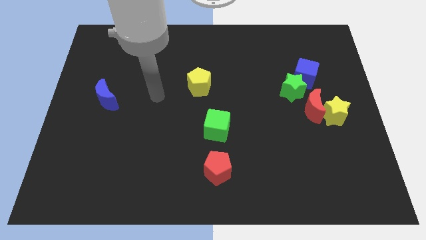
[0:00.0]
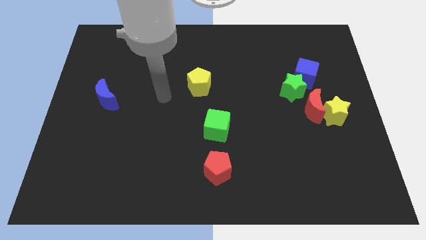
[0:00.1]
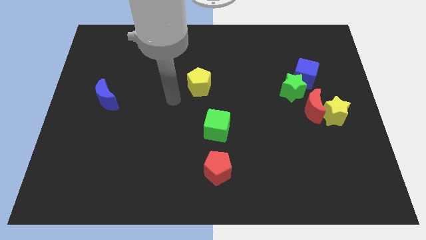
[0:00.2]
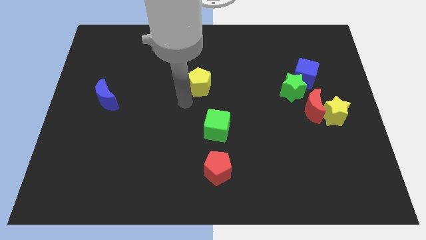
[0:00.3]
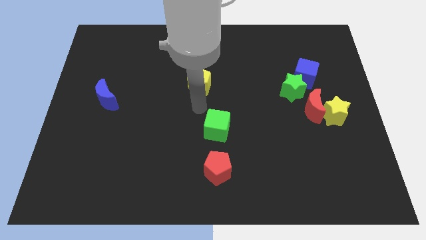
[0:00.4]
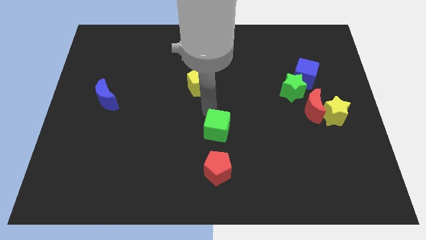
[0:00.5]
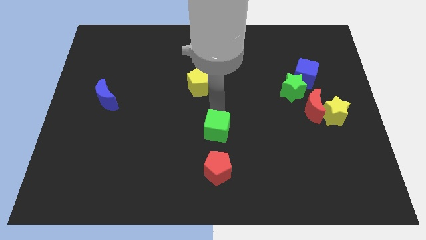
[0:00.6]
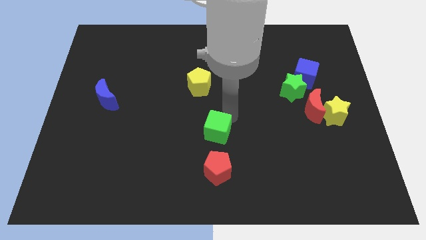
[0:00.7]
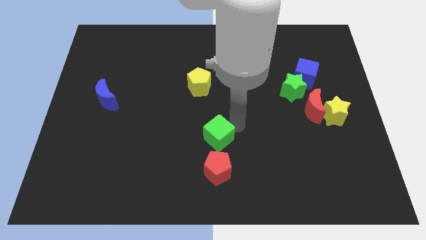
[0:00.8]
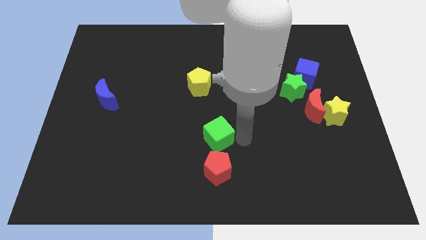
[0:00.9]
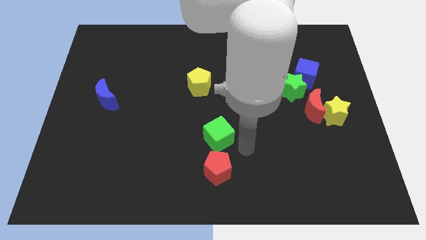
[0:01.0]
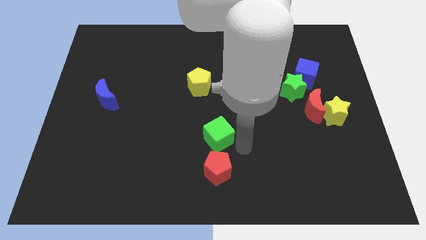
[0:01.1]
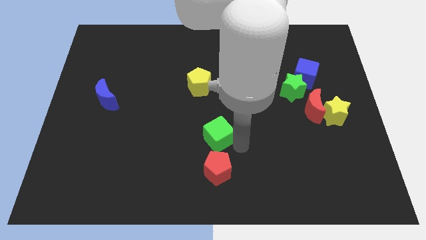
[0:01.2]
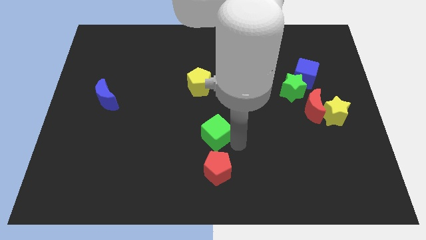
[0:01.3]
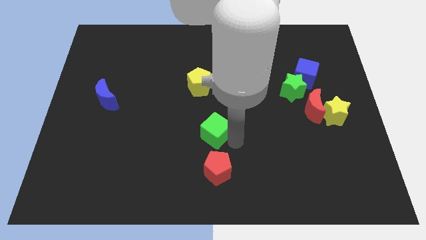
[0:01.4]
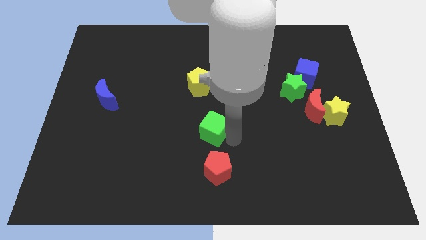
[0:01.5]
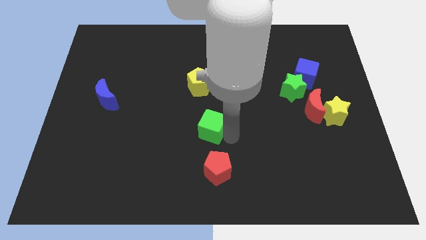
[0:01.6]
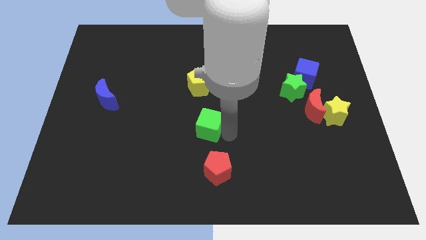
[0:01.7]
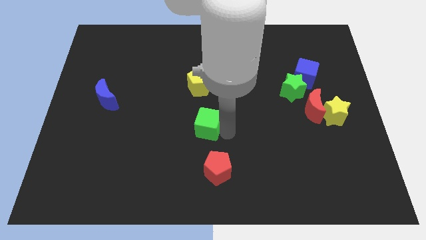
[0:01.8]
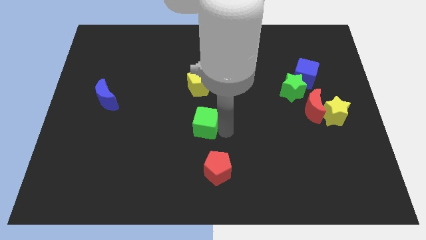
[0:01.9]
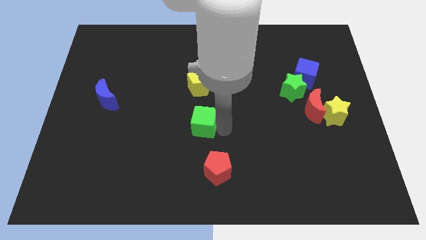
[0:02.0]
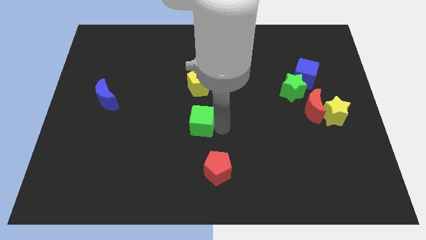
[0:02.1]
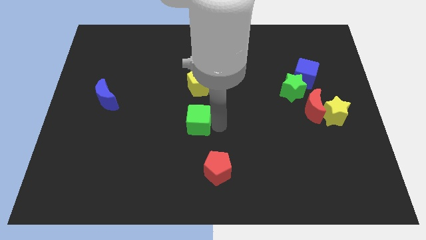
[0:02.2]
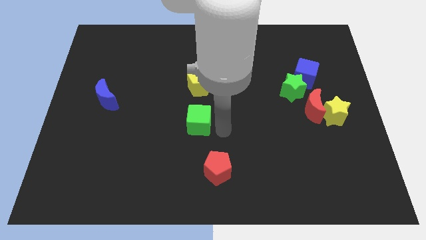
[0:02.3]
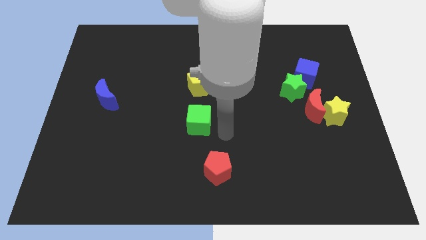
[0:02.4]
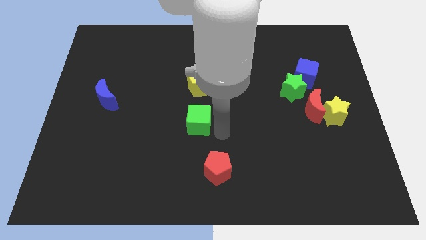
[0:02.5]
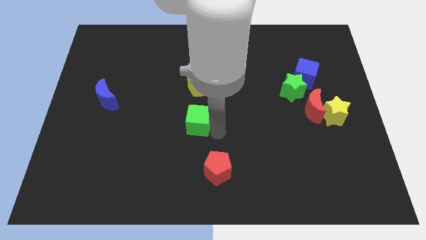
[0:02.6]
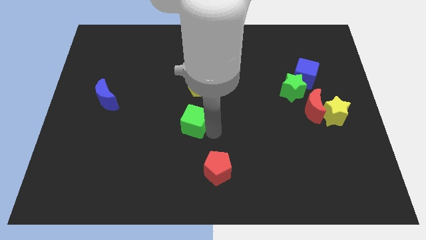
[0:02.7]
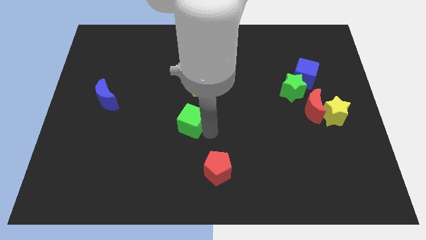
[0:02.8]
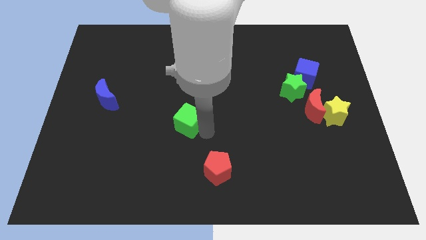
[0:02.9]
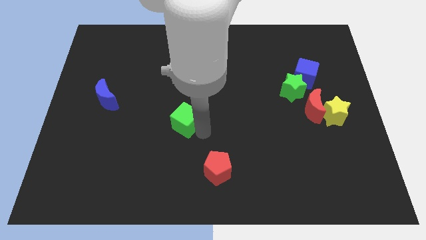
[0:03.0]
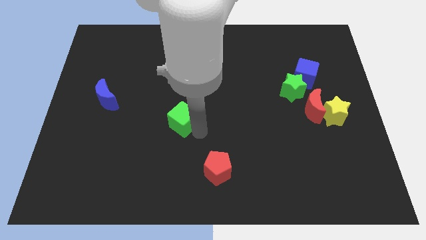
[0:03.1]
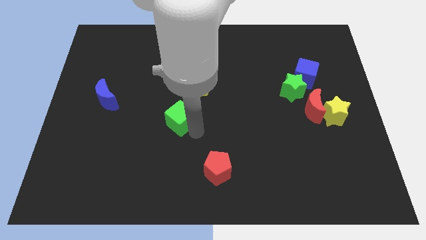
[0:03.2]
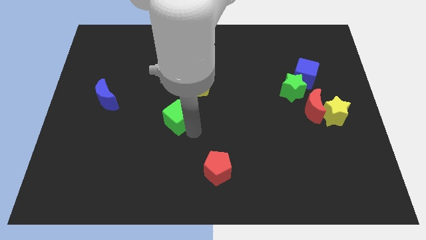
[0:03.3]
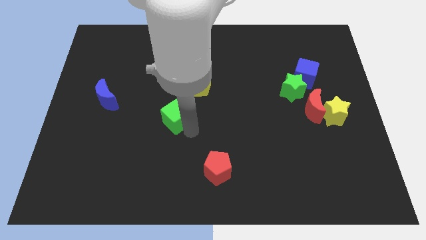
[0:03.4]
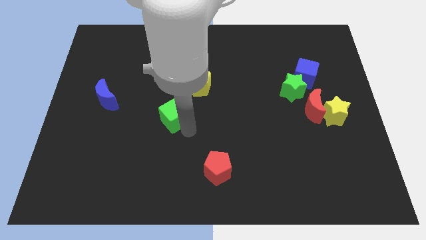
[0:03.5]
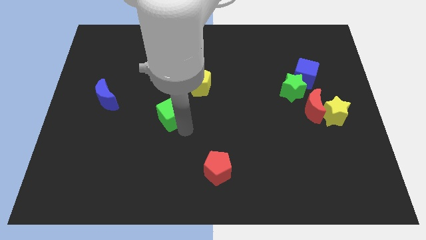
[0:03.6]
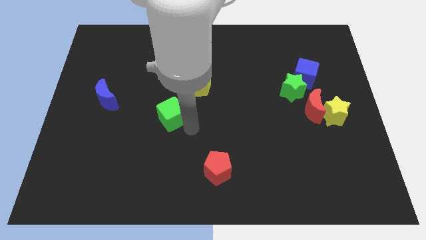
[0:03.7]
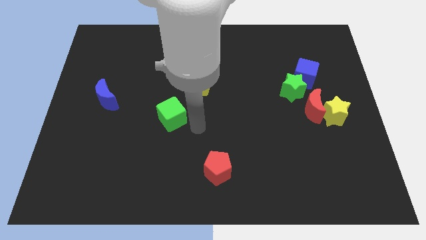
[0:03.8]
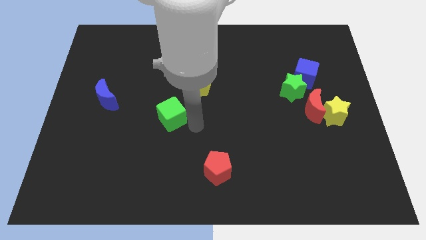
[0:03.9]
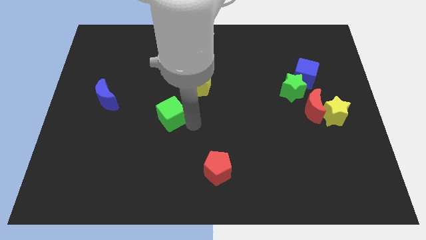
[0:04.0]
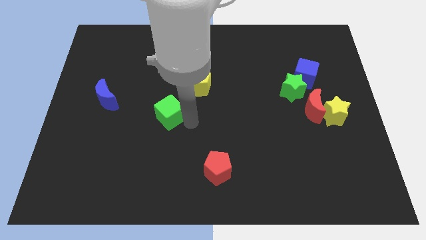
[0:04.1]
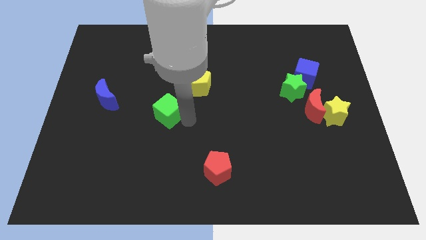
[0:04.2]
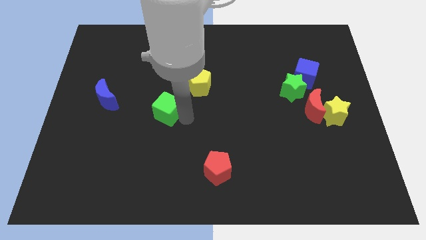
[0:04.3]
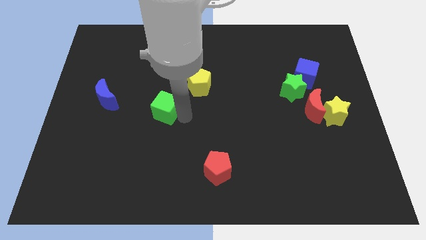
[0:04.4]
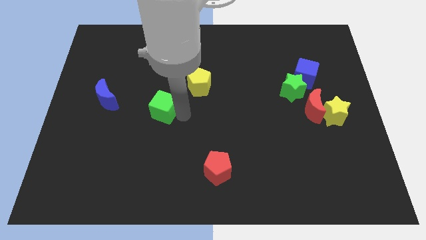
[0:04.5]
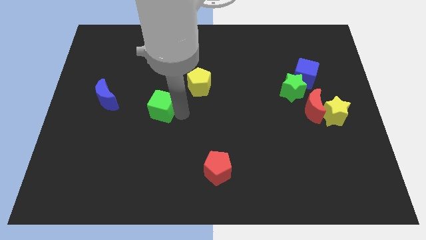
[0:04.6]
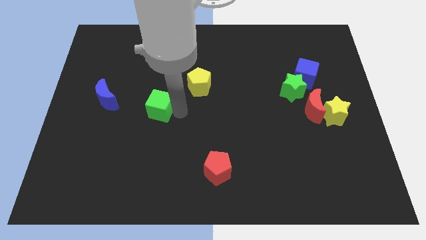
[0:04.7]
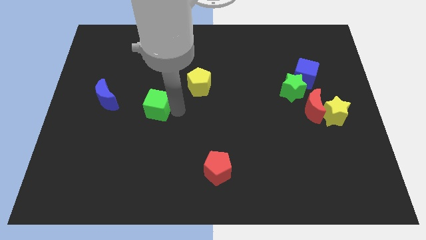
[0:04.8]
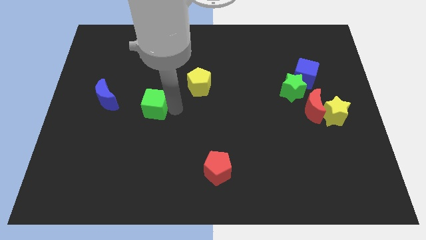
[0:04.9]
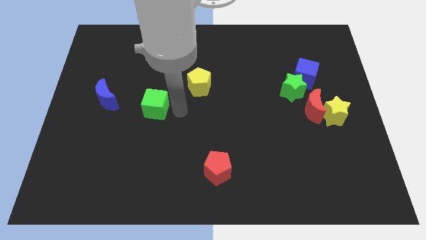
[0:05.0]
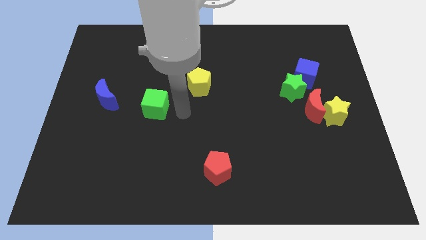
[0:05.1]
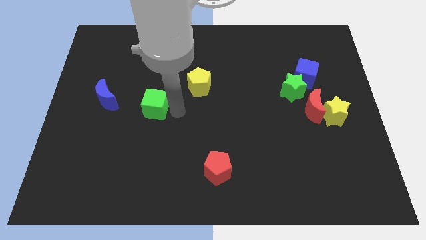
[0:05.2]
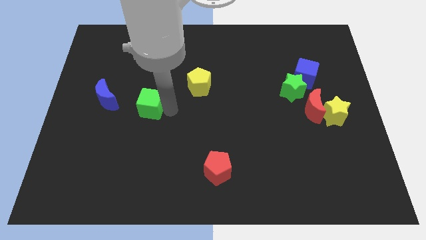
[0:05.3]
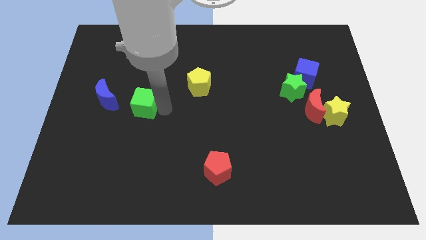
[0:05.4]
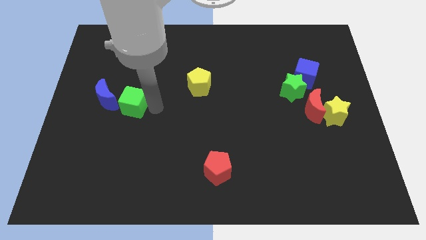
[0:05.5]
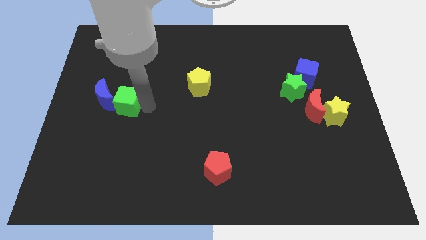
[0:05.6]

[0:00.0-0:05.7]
move the green cube to the blue moon

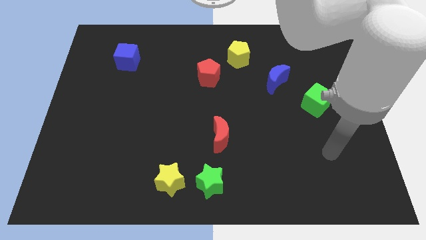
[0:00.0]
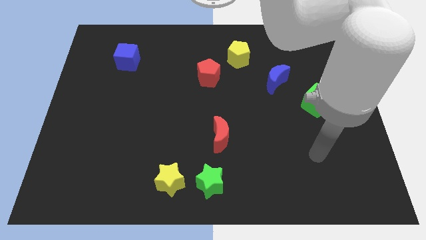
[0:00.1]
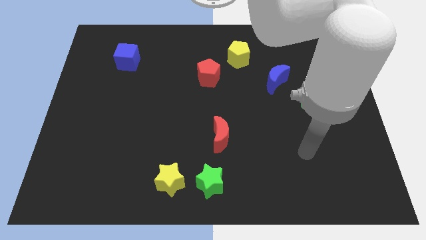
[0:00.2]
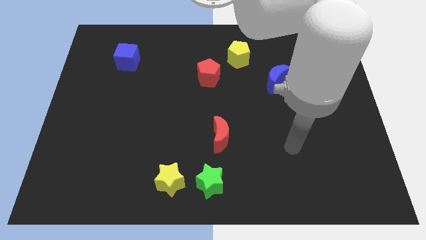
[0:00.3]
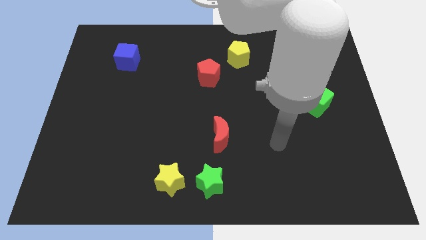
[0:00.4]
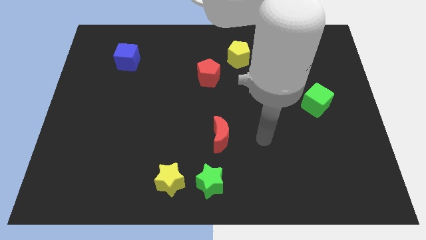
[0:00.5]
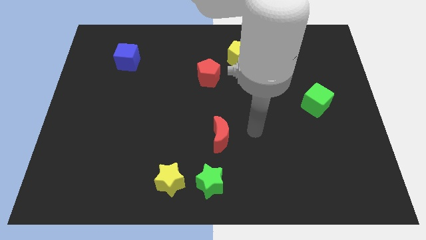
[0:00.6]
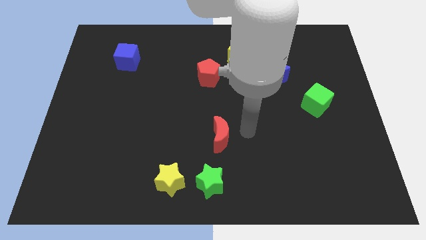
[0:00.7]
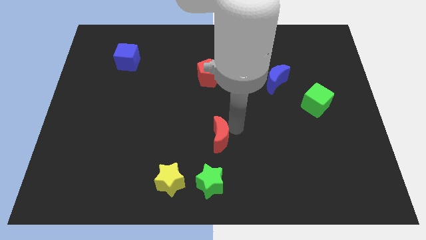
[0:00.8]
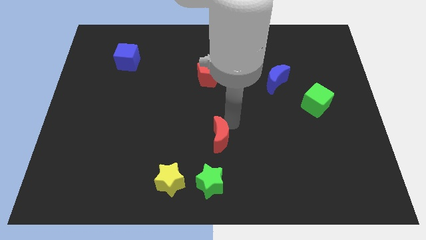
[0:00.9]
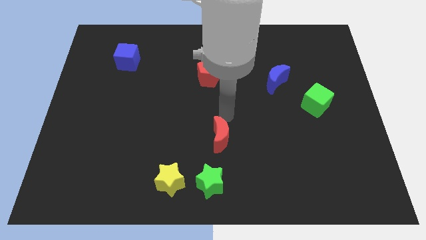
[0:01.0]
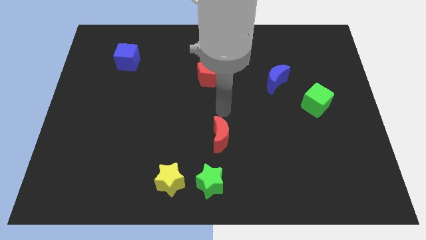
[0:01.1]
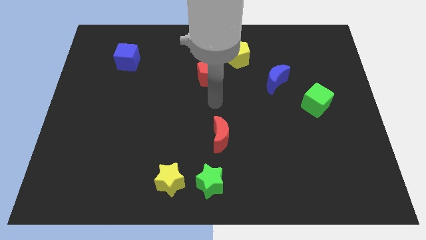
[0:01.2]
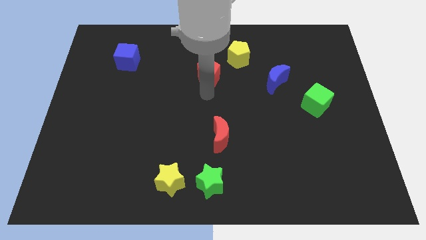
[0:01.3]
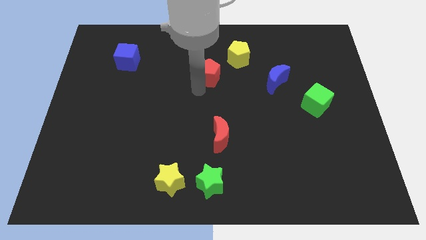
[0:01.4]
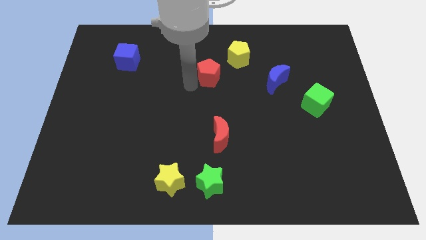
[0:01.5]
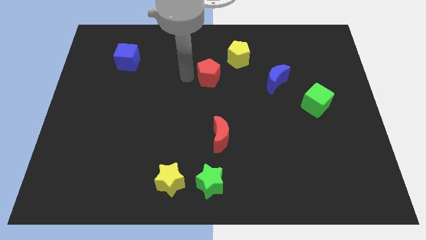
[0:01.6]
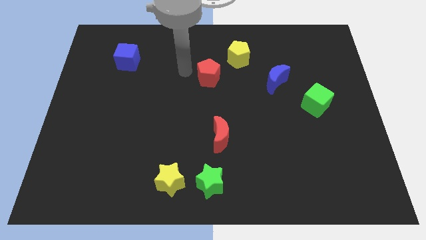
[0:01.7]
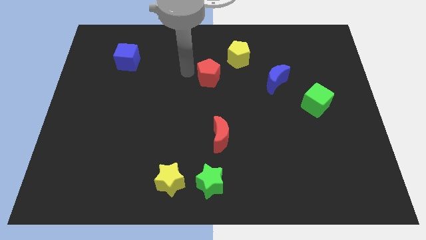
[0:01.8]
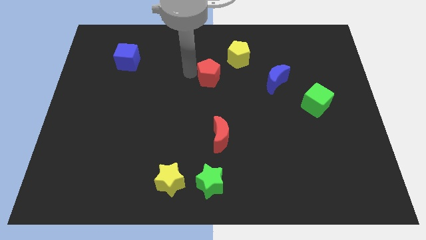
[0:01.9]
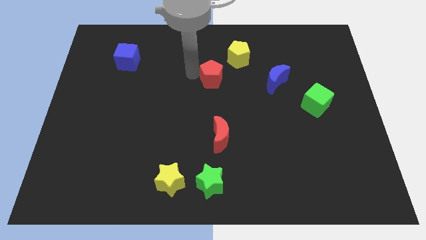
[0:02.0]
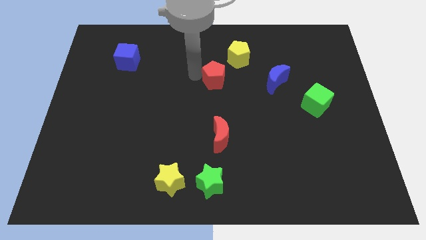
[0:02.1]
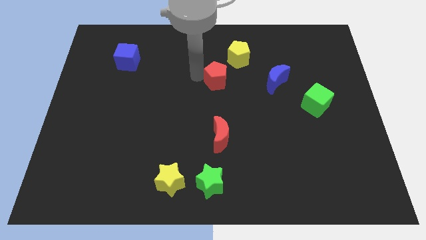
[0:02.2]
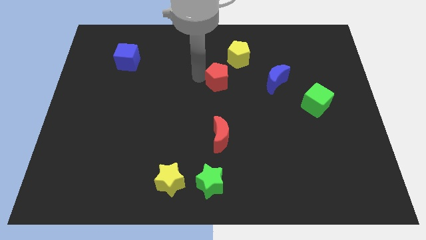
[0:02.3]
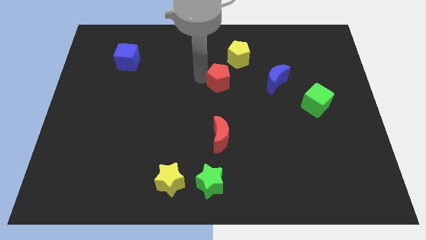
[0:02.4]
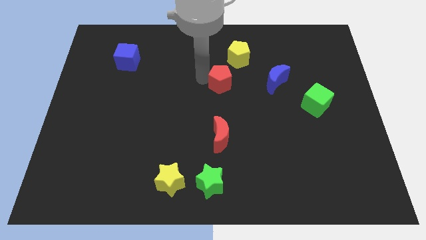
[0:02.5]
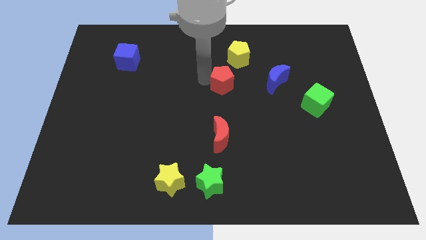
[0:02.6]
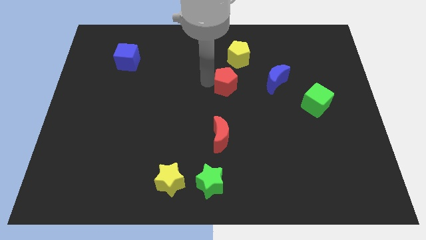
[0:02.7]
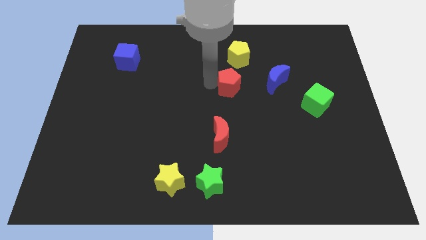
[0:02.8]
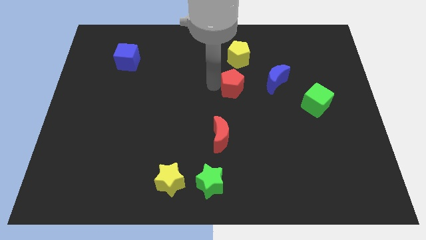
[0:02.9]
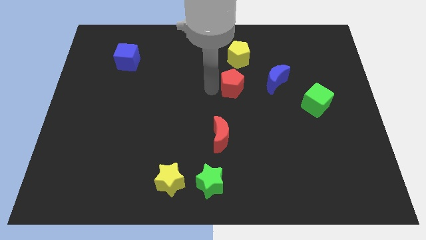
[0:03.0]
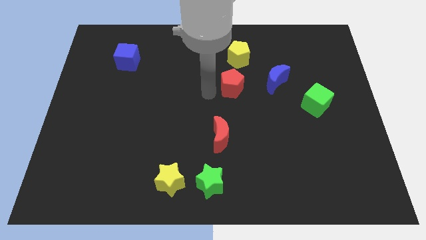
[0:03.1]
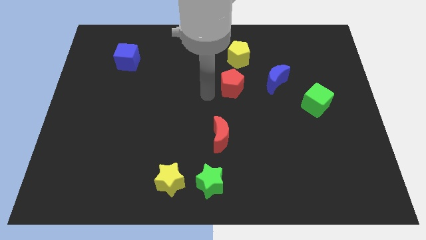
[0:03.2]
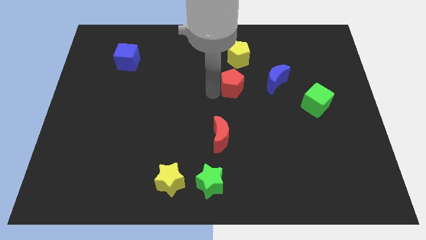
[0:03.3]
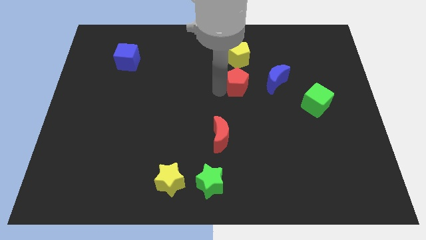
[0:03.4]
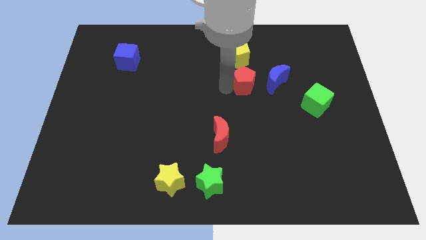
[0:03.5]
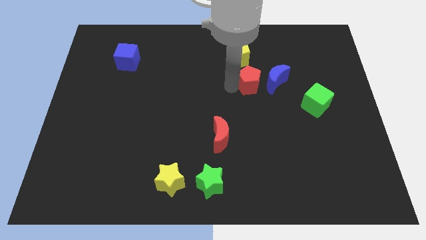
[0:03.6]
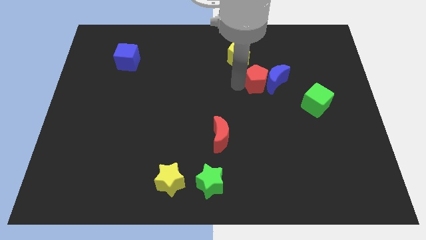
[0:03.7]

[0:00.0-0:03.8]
push the red pentagon close to the blue moon
